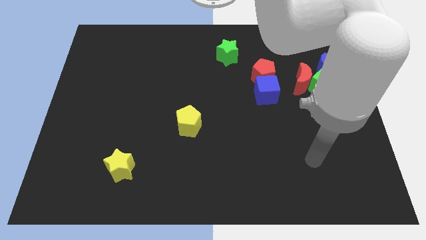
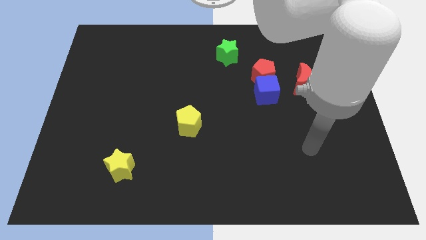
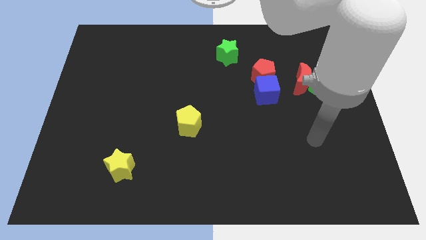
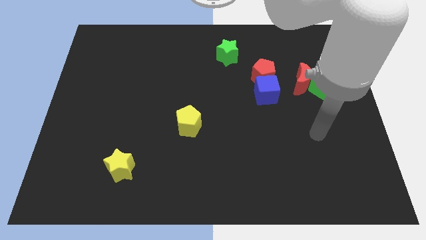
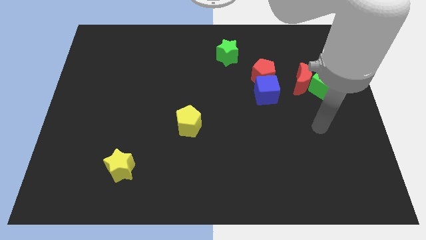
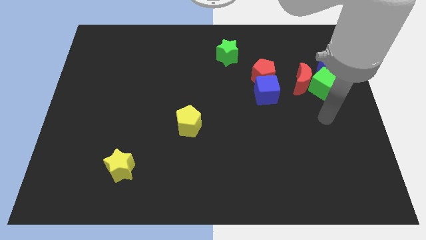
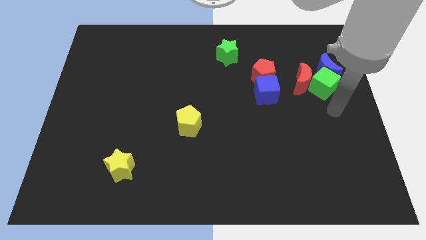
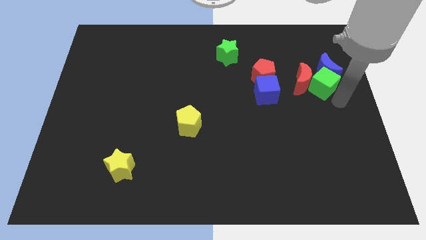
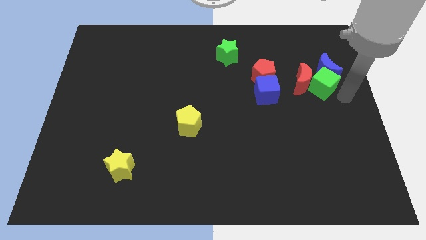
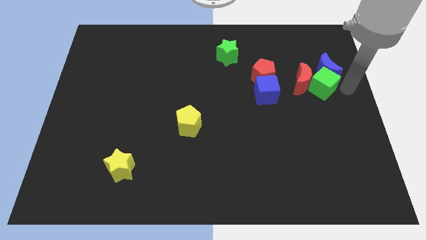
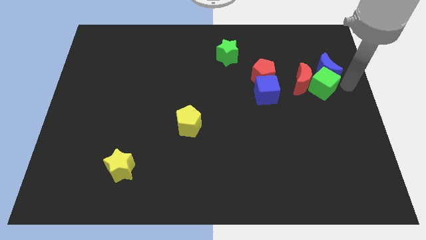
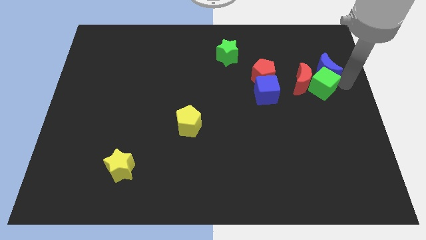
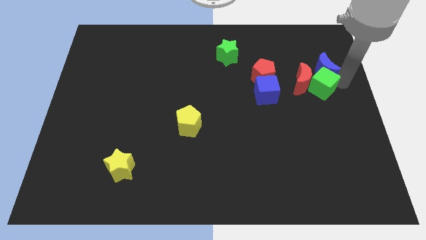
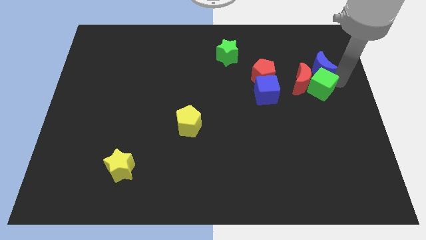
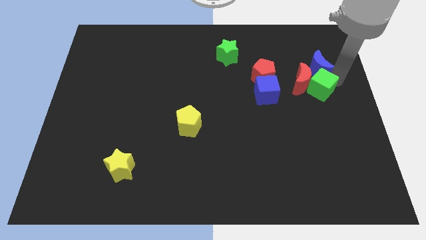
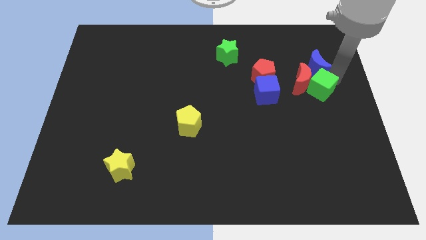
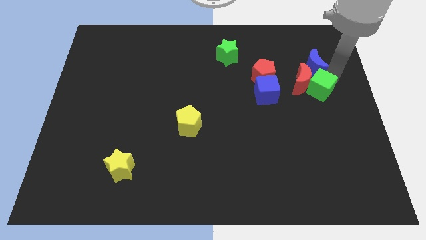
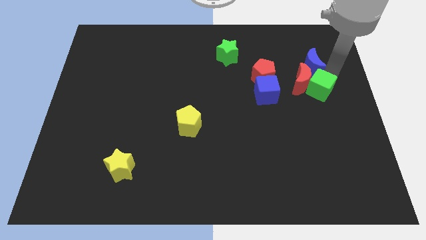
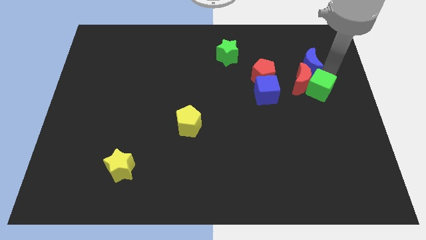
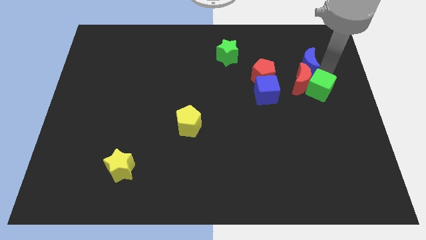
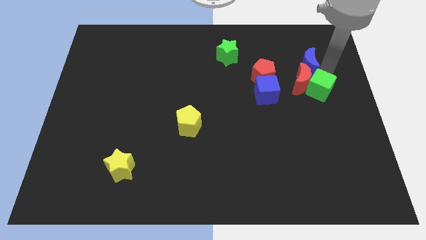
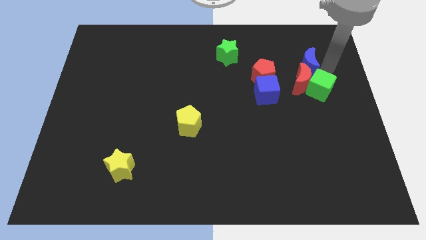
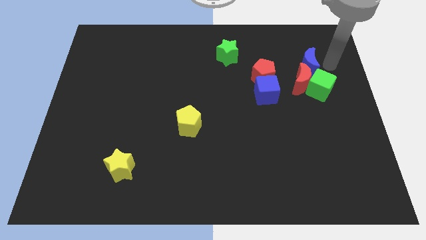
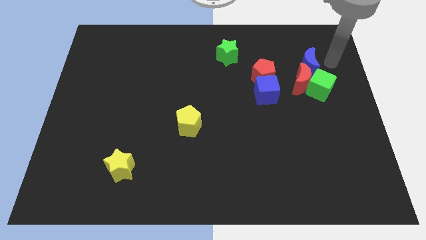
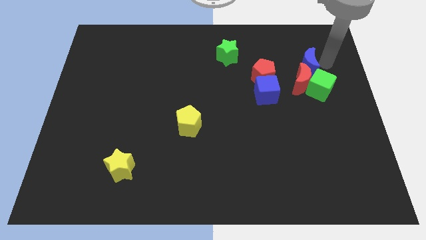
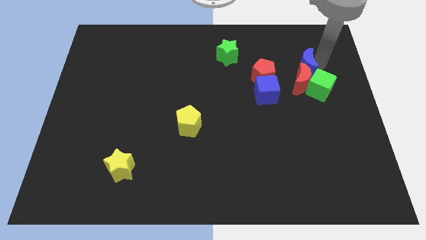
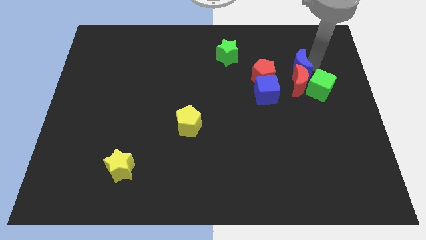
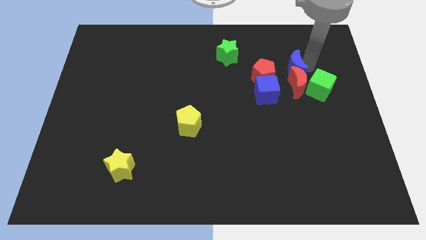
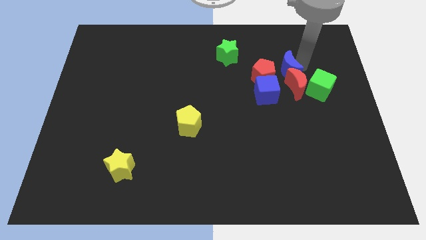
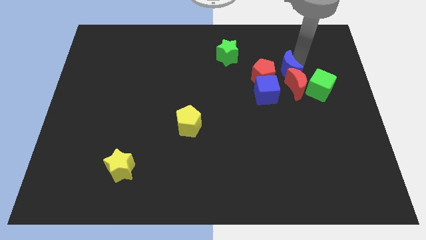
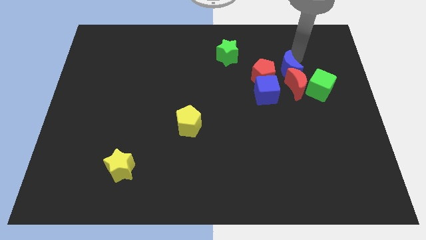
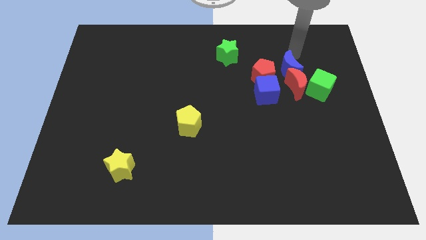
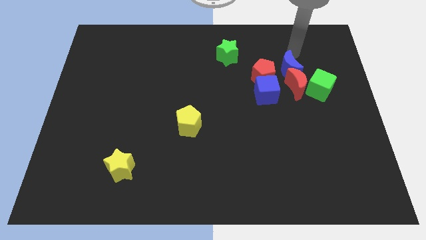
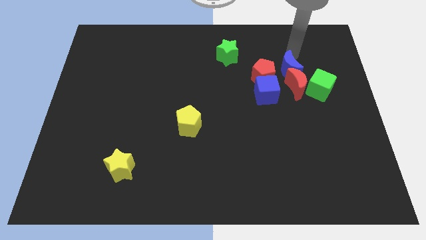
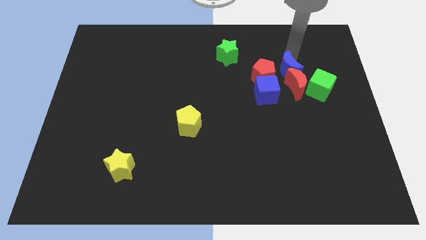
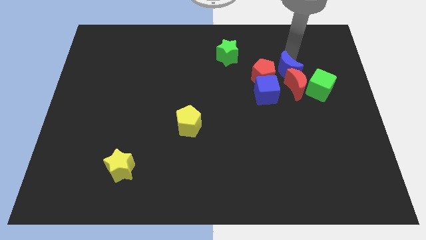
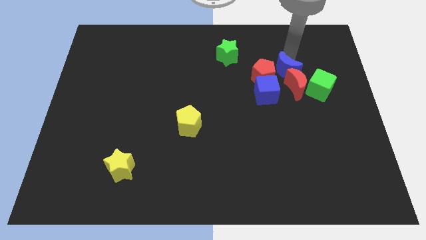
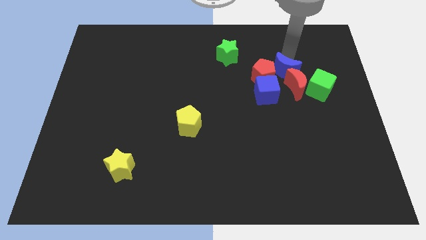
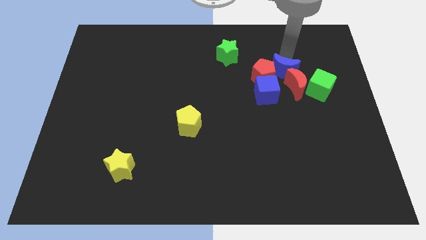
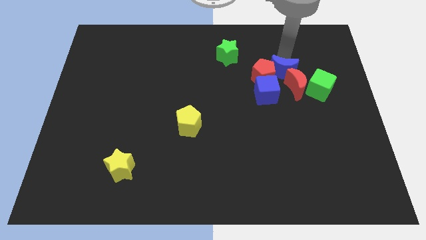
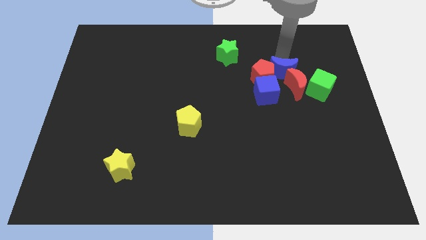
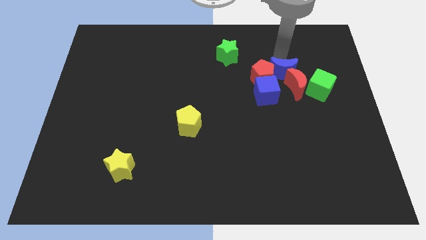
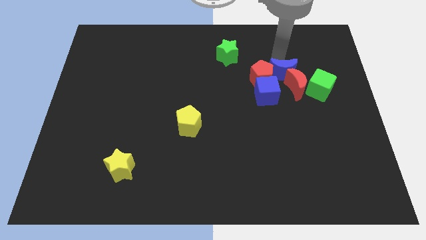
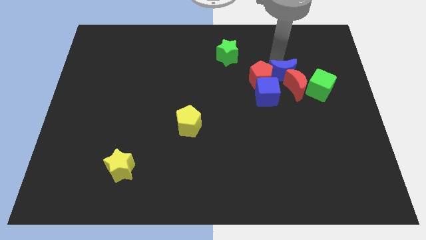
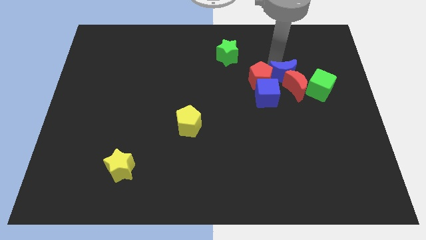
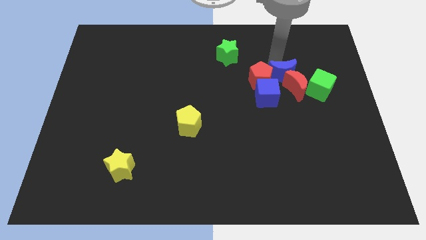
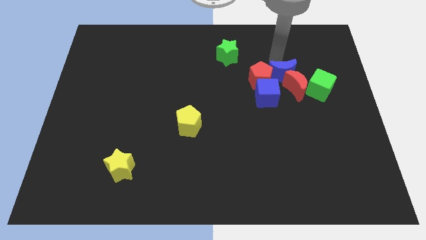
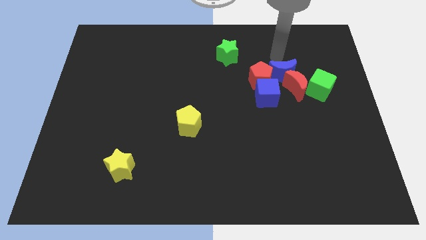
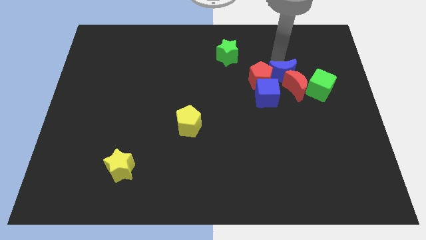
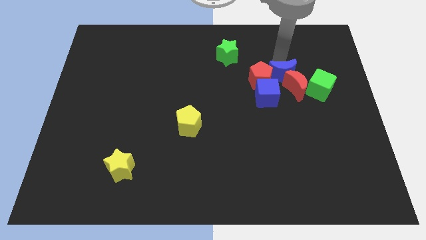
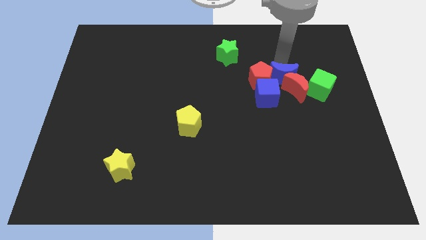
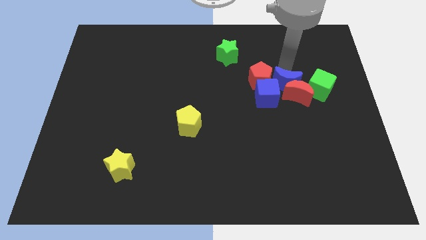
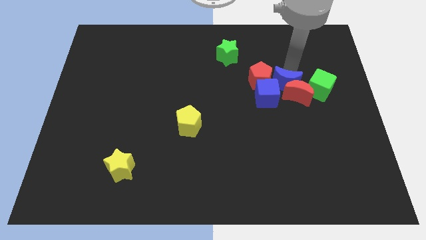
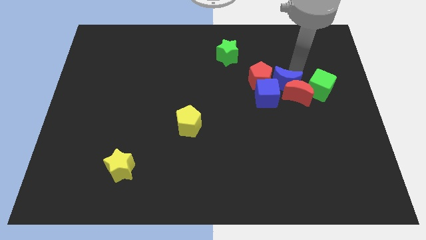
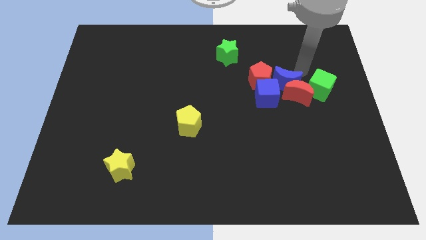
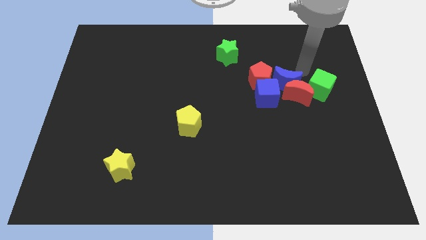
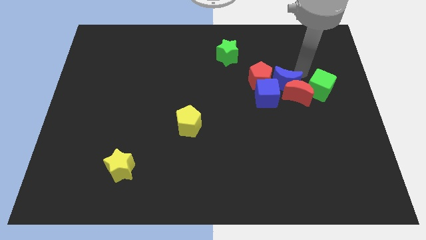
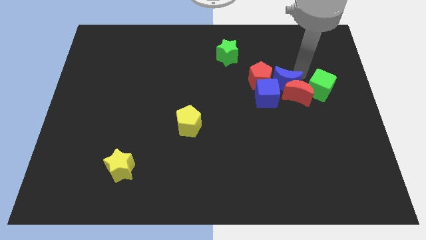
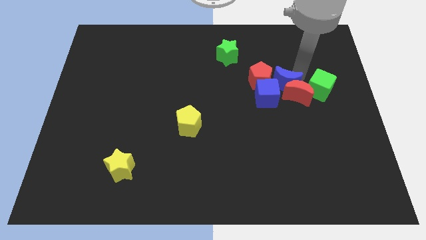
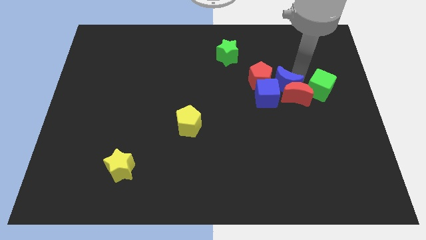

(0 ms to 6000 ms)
put the blue moon to the blue cube

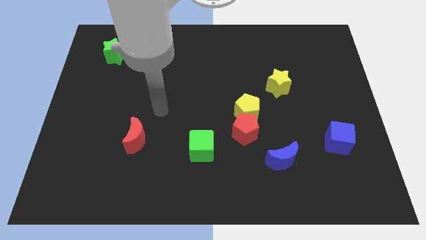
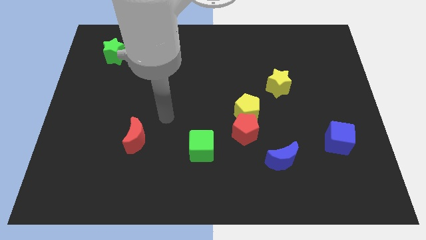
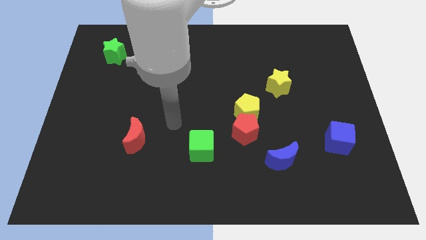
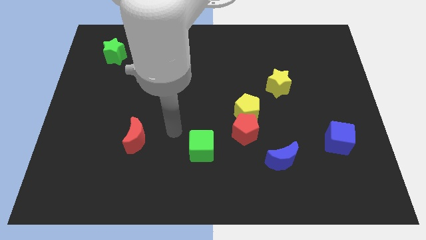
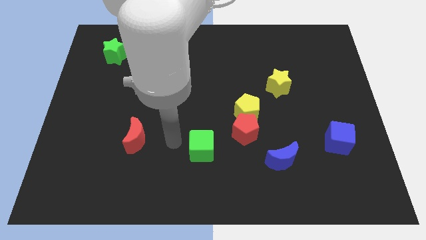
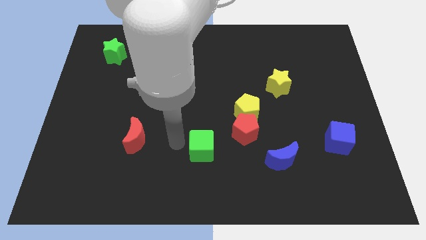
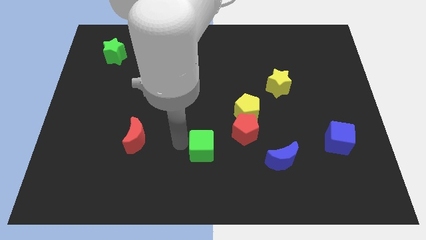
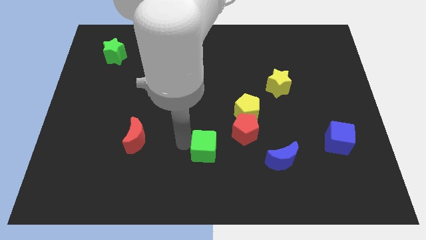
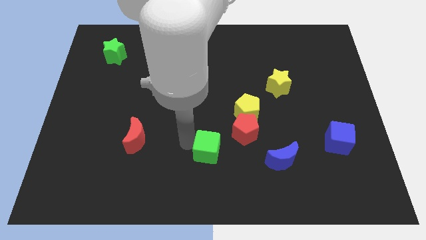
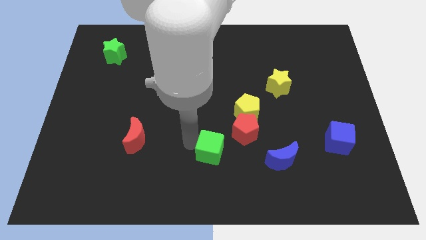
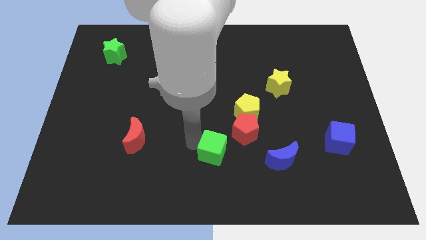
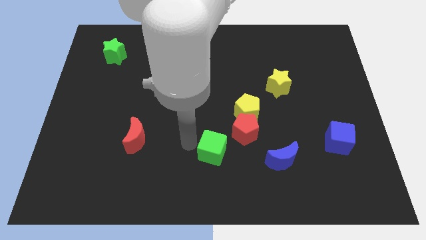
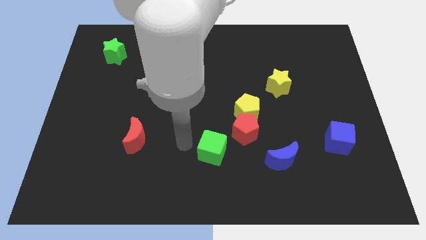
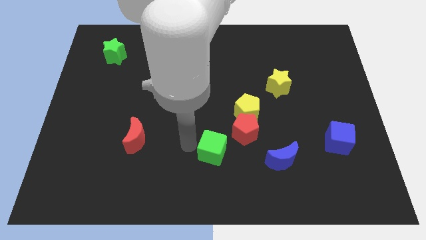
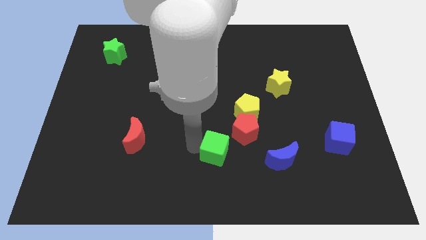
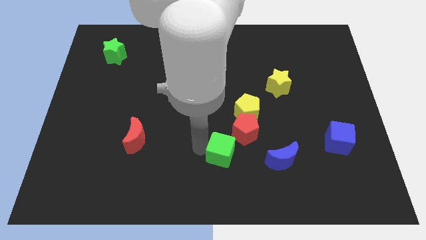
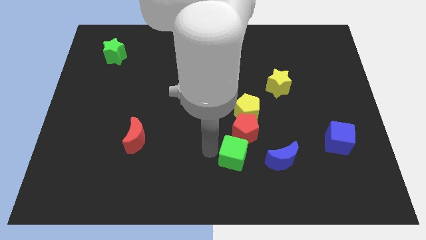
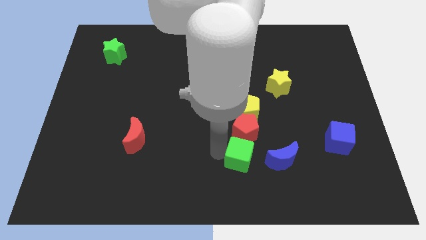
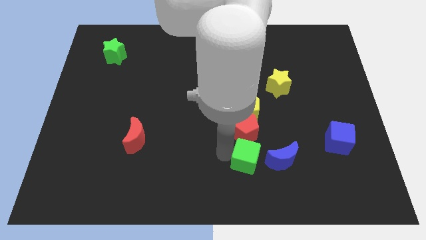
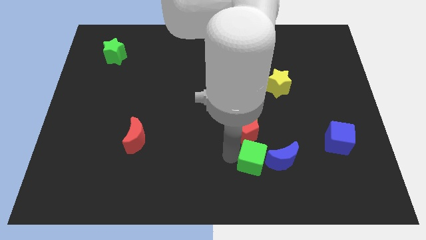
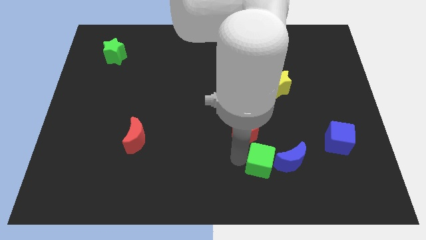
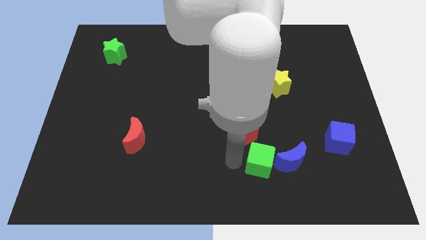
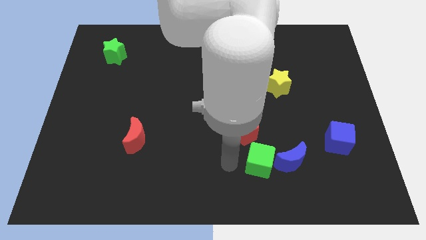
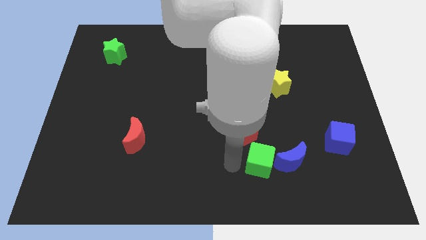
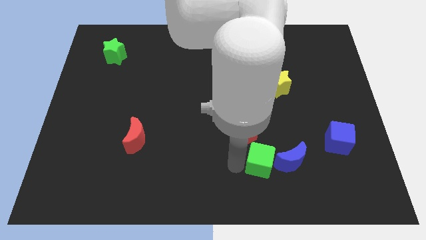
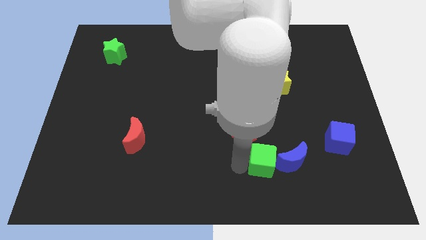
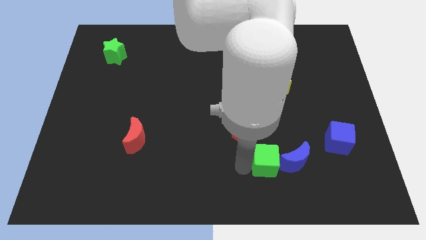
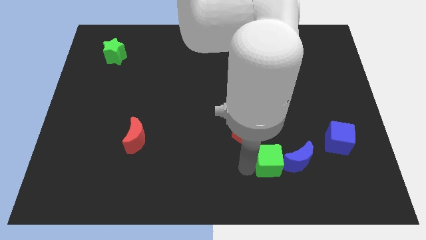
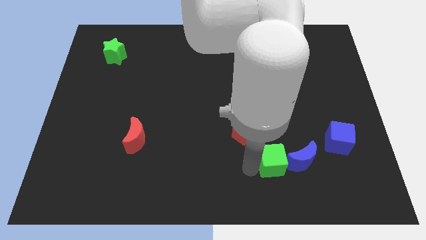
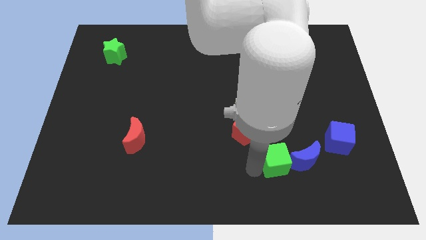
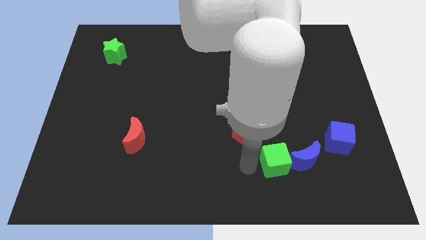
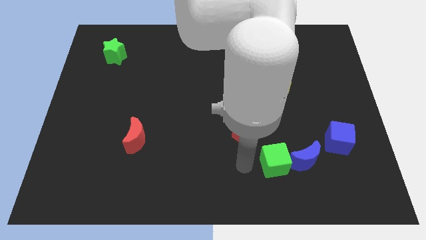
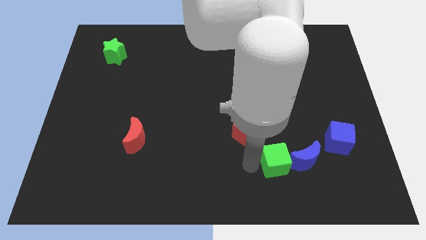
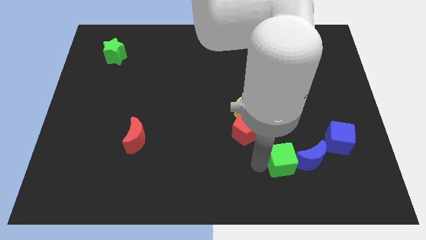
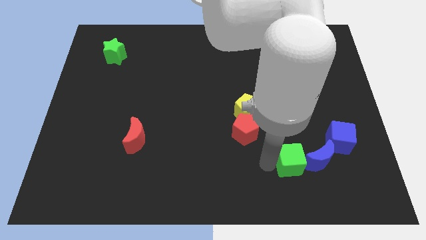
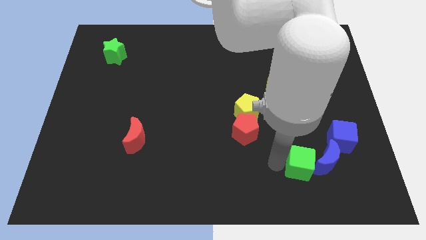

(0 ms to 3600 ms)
slide the green cube towards the blue moon
